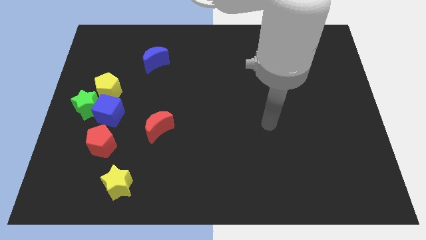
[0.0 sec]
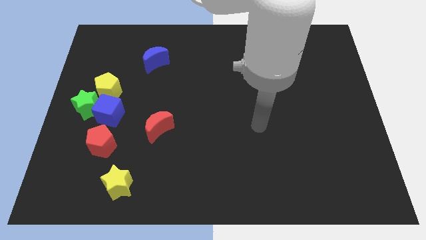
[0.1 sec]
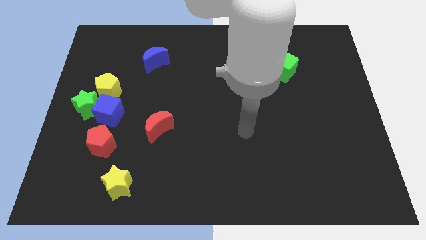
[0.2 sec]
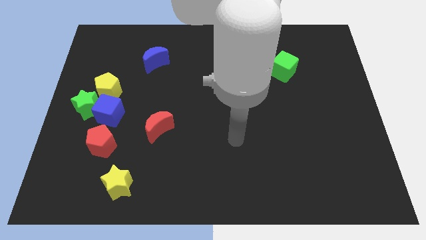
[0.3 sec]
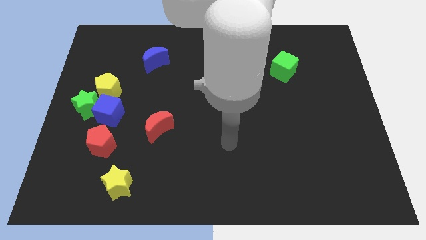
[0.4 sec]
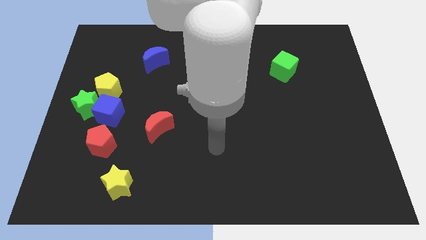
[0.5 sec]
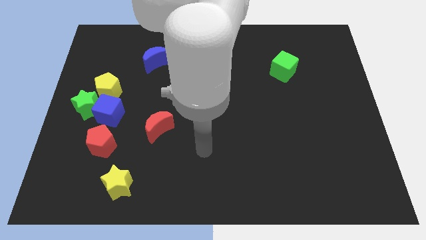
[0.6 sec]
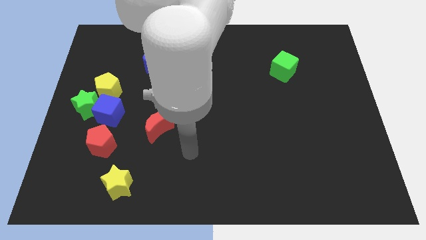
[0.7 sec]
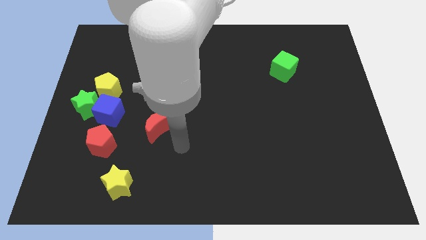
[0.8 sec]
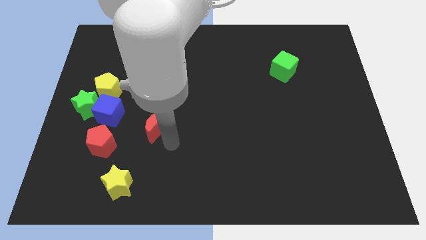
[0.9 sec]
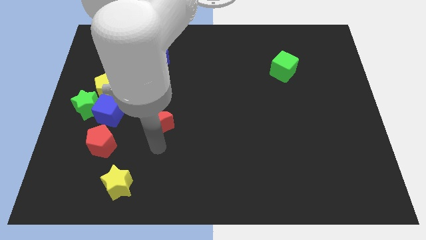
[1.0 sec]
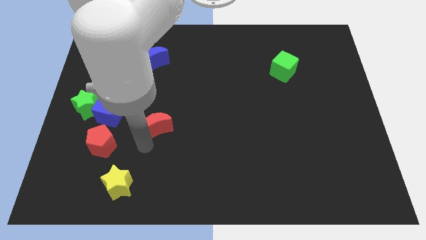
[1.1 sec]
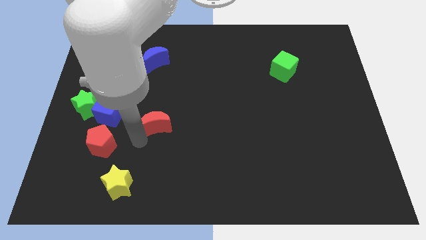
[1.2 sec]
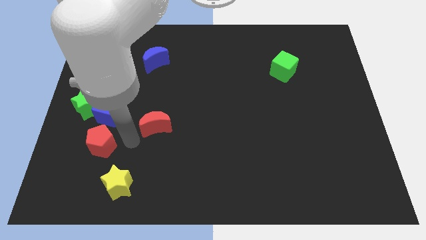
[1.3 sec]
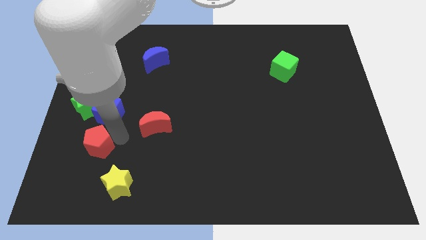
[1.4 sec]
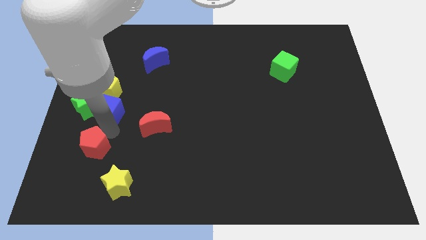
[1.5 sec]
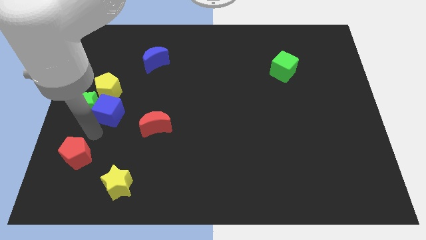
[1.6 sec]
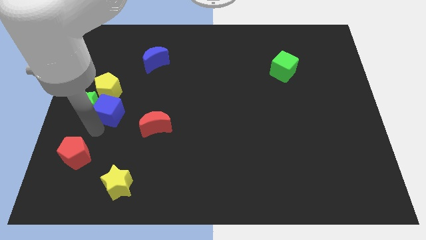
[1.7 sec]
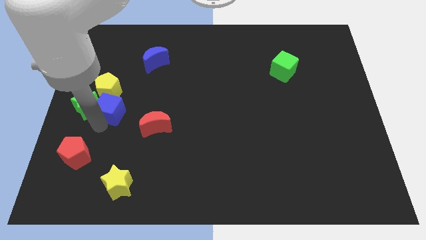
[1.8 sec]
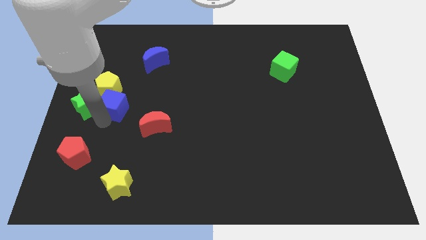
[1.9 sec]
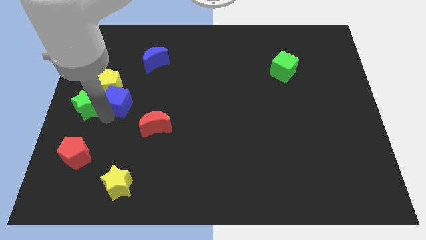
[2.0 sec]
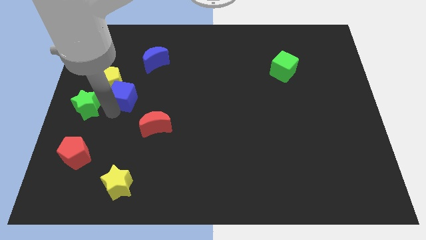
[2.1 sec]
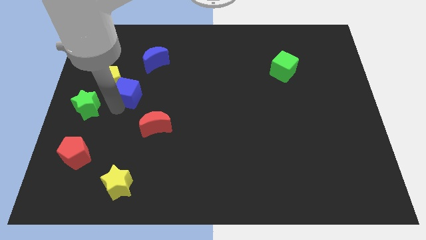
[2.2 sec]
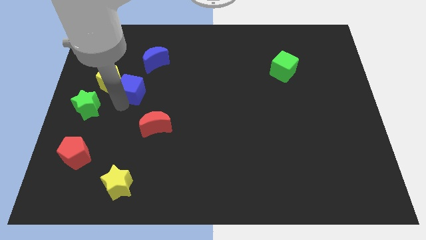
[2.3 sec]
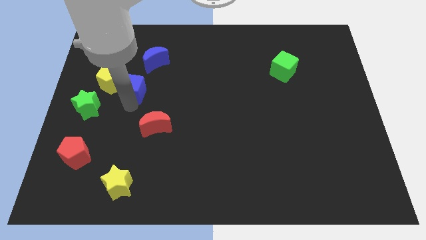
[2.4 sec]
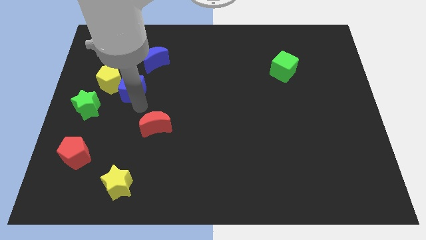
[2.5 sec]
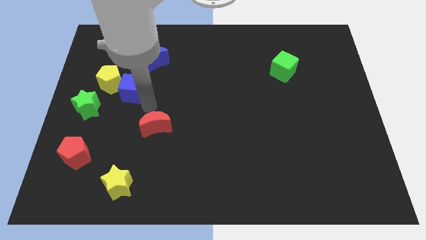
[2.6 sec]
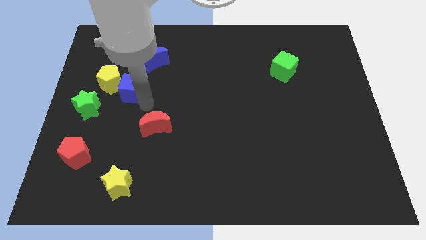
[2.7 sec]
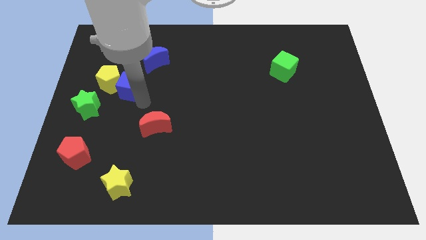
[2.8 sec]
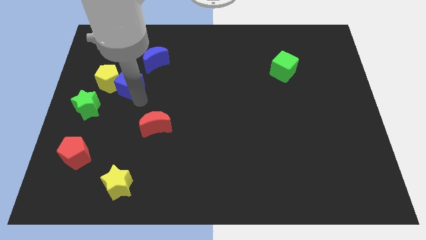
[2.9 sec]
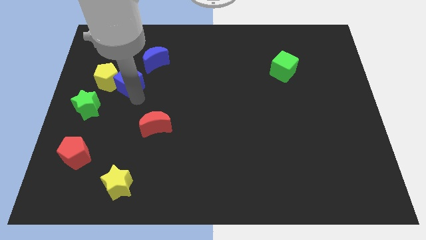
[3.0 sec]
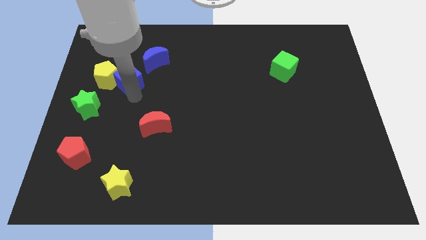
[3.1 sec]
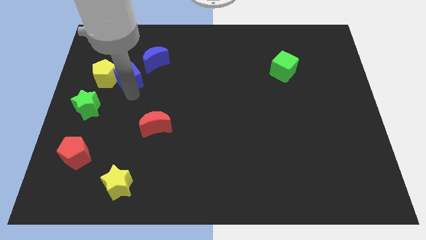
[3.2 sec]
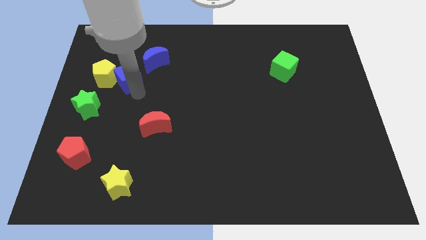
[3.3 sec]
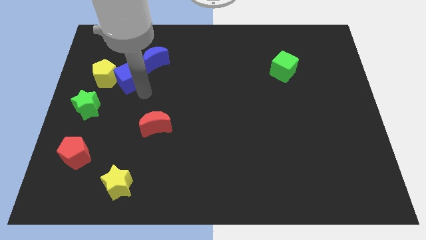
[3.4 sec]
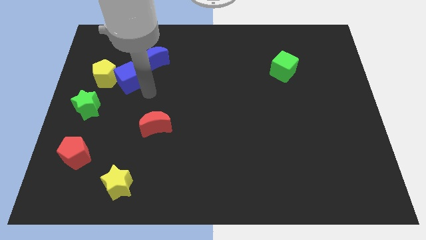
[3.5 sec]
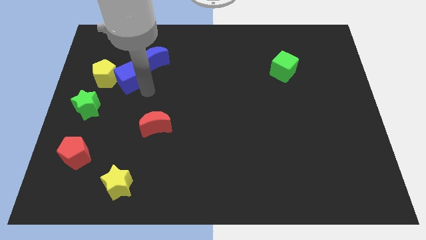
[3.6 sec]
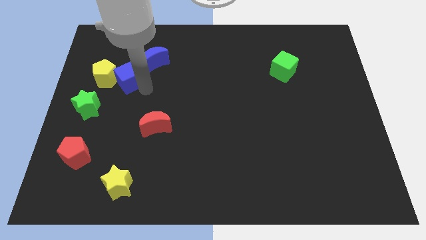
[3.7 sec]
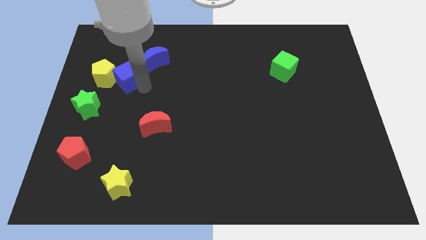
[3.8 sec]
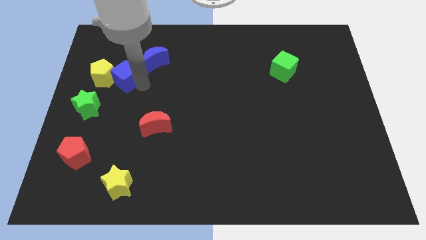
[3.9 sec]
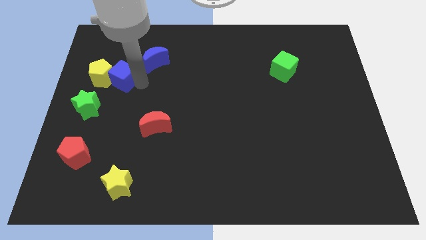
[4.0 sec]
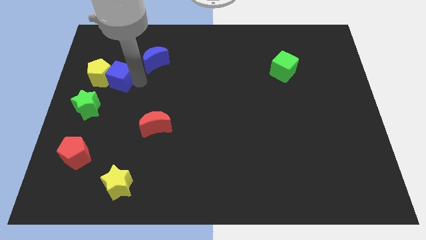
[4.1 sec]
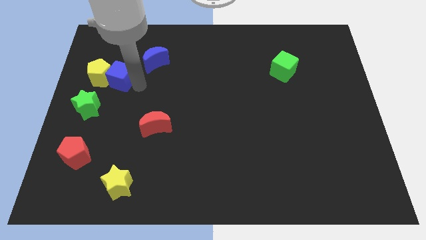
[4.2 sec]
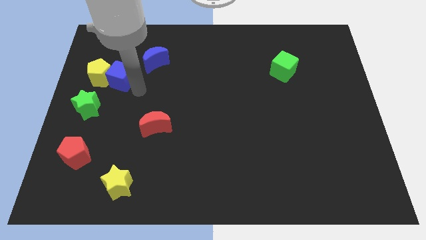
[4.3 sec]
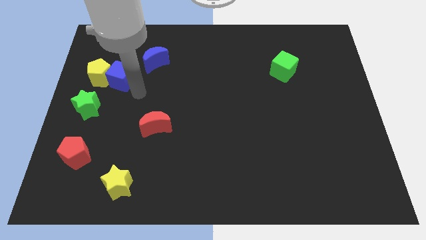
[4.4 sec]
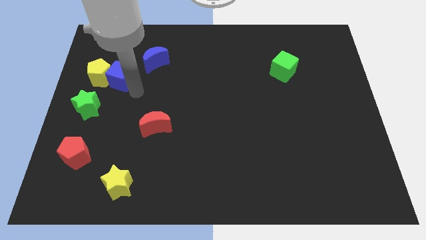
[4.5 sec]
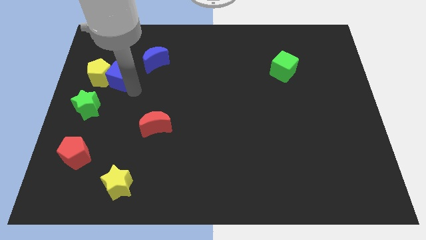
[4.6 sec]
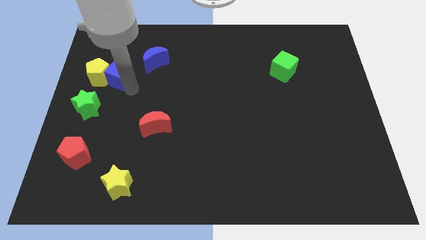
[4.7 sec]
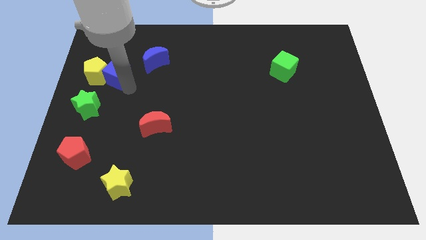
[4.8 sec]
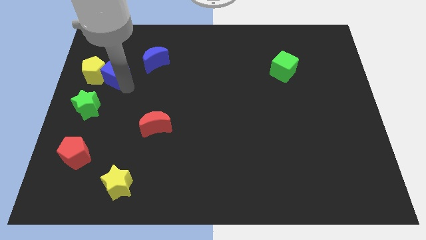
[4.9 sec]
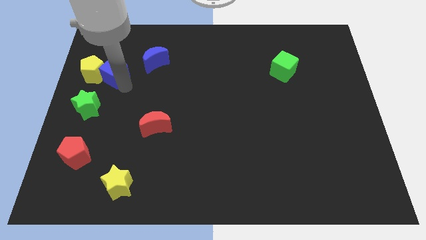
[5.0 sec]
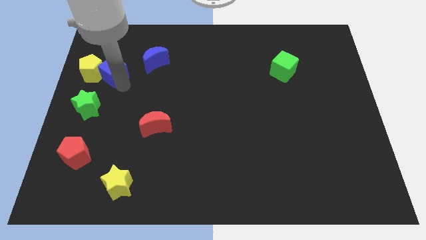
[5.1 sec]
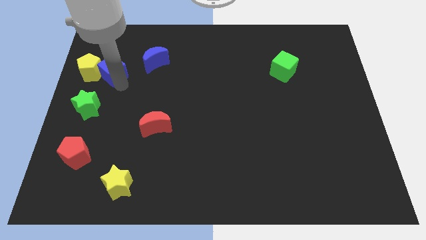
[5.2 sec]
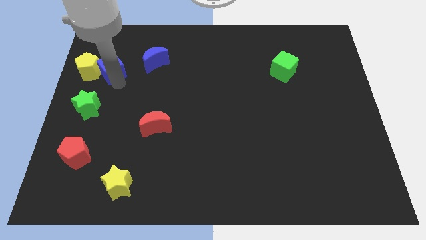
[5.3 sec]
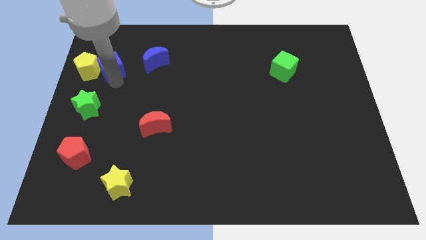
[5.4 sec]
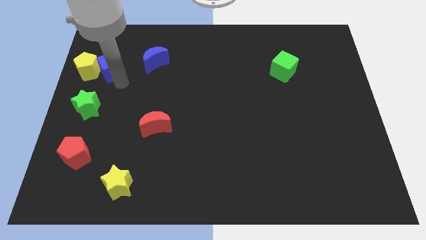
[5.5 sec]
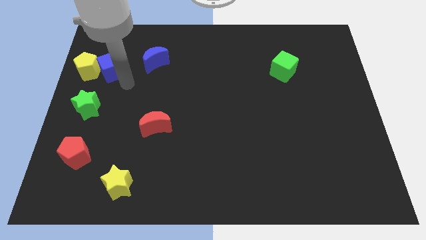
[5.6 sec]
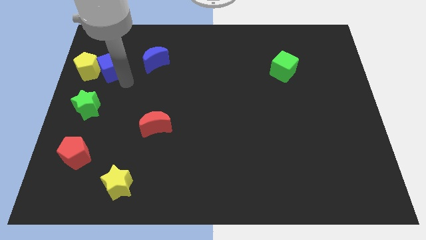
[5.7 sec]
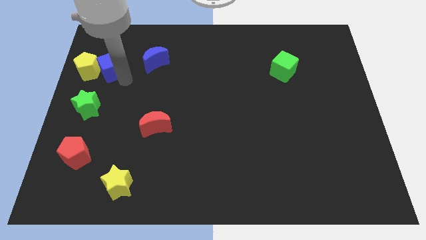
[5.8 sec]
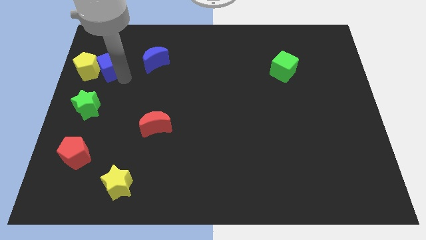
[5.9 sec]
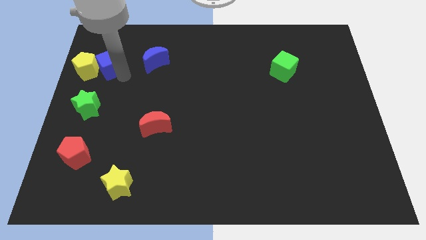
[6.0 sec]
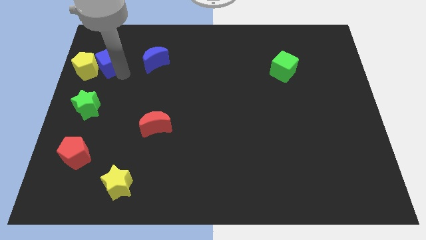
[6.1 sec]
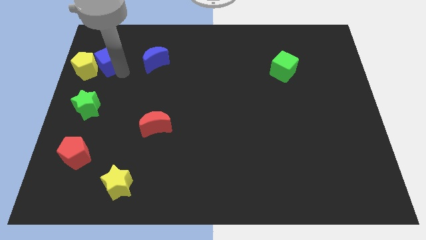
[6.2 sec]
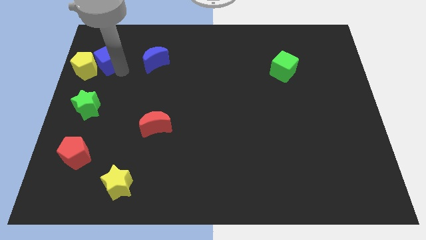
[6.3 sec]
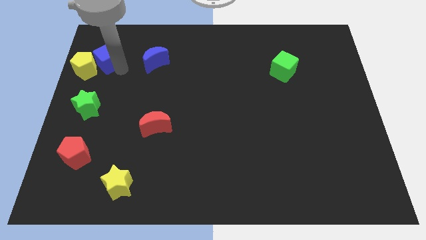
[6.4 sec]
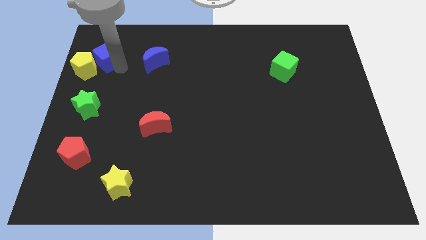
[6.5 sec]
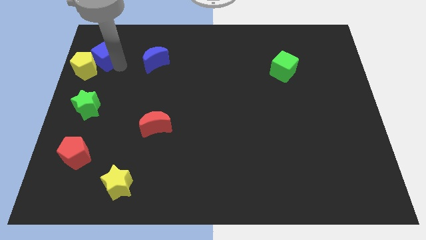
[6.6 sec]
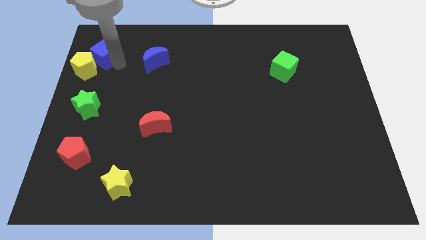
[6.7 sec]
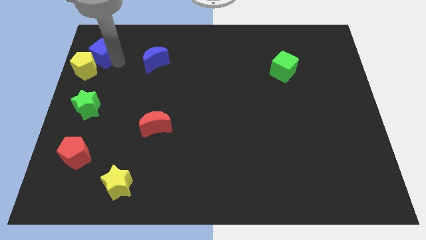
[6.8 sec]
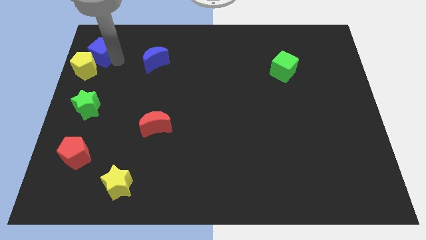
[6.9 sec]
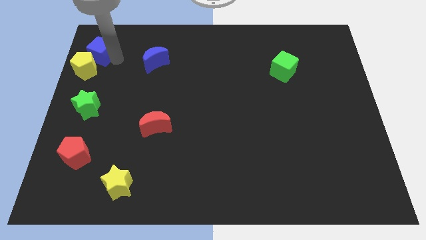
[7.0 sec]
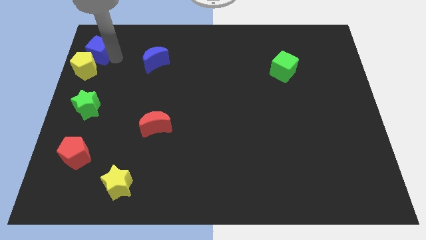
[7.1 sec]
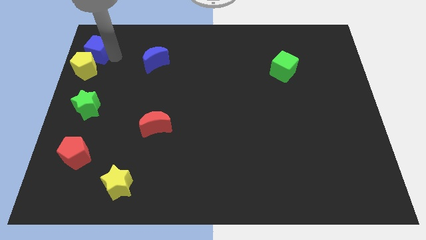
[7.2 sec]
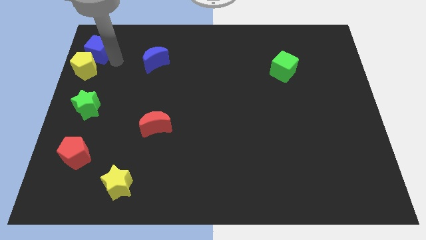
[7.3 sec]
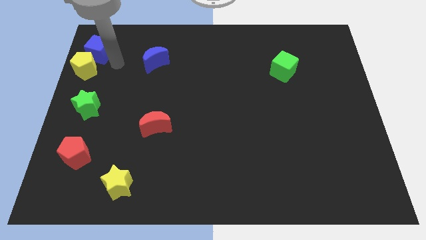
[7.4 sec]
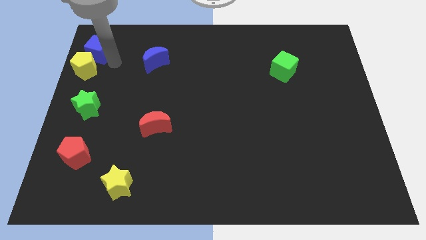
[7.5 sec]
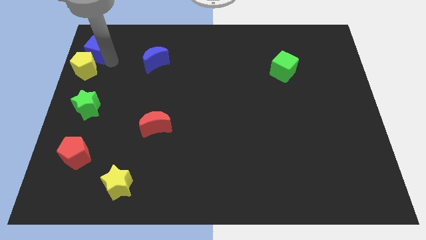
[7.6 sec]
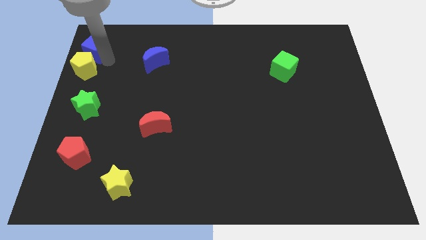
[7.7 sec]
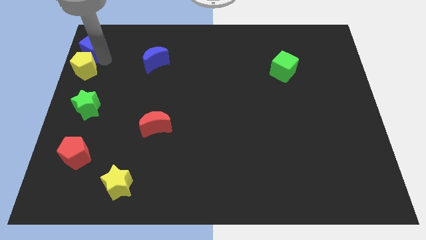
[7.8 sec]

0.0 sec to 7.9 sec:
slide the blue cube to the upper left corner

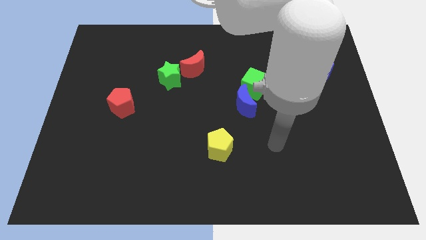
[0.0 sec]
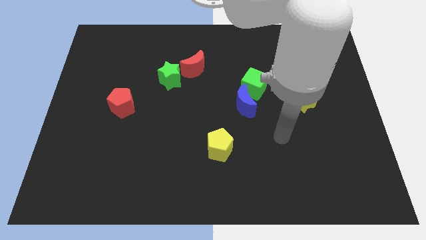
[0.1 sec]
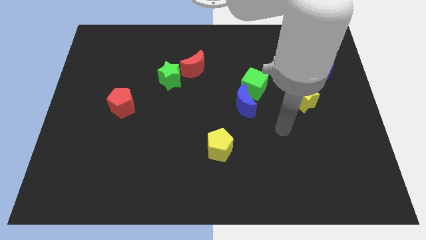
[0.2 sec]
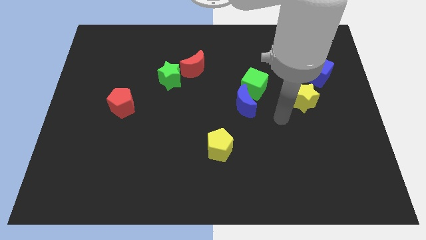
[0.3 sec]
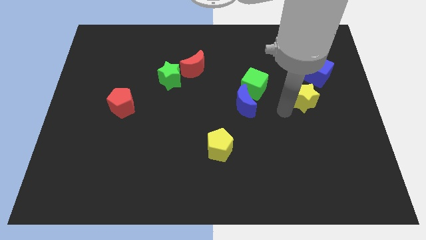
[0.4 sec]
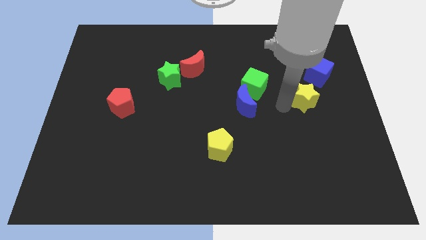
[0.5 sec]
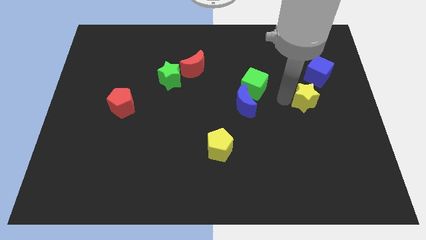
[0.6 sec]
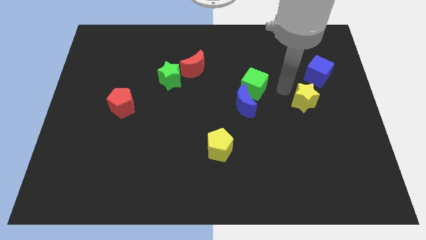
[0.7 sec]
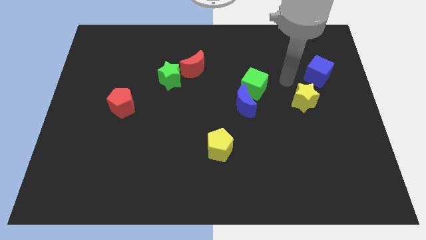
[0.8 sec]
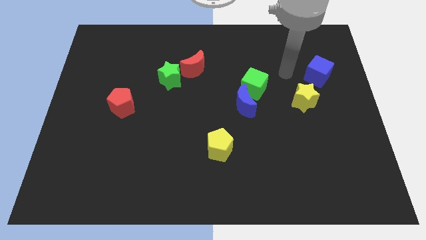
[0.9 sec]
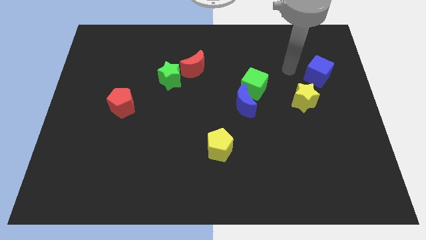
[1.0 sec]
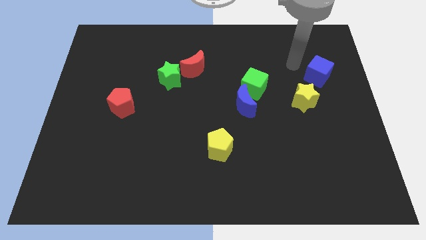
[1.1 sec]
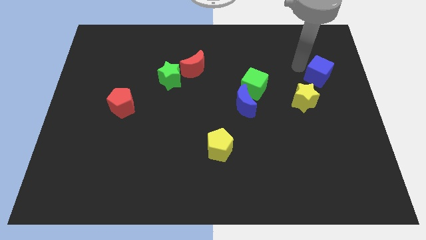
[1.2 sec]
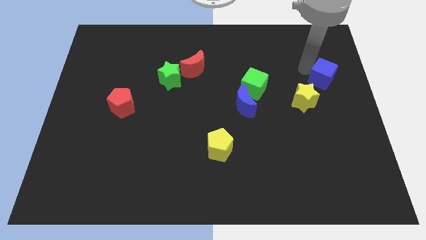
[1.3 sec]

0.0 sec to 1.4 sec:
push the blue cube to the right side of the board
